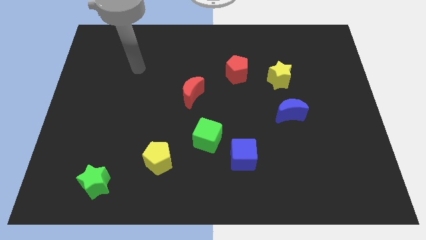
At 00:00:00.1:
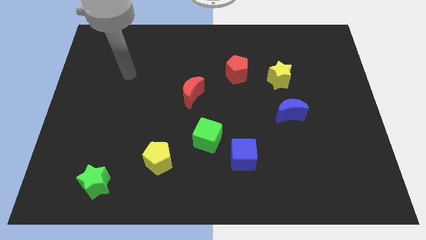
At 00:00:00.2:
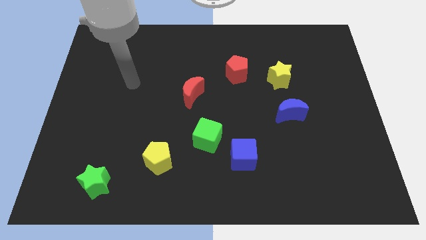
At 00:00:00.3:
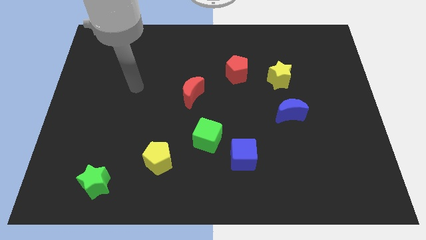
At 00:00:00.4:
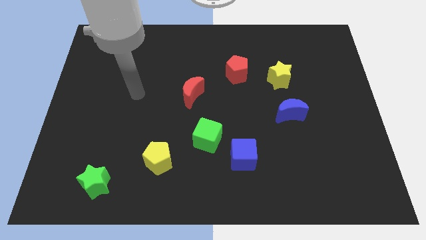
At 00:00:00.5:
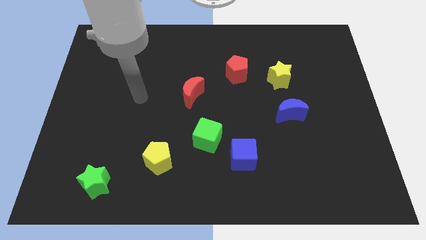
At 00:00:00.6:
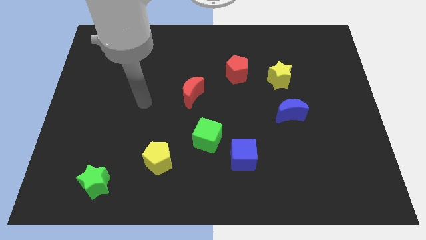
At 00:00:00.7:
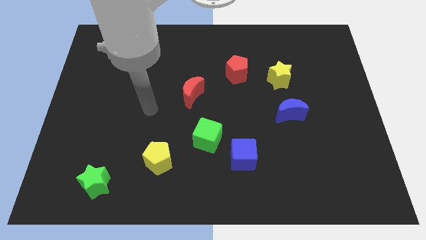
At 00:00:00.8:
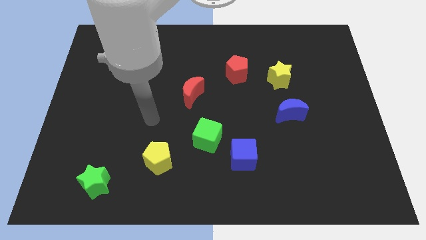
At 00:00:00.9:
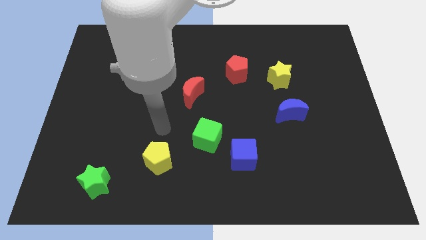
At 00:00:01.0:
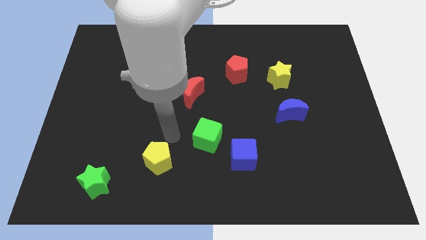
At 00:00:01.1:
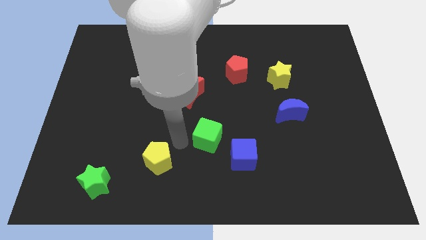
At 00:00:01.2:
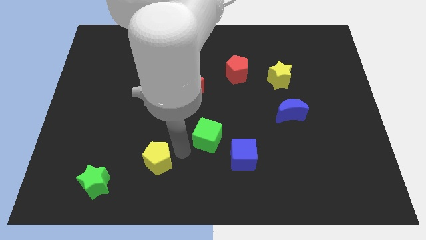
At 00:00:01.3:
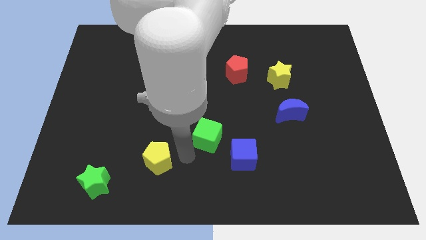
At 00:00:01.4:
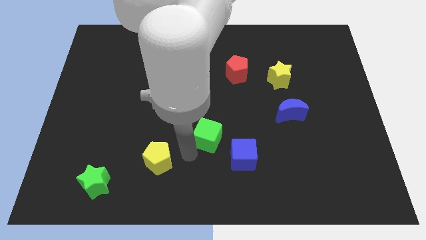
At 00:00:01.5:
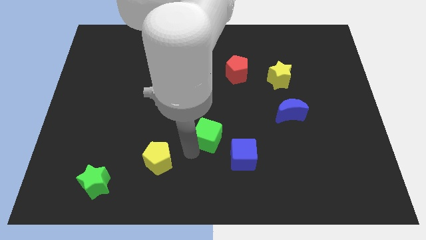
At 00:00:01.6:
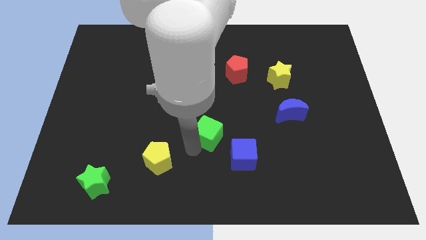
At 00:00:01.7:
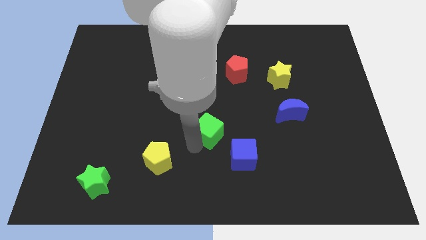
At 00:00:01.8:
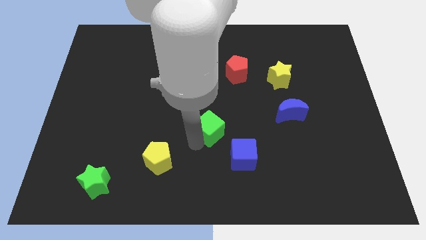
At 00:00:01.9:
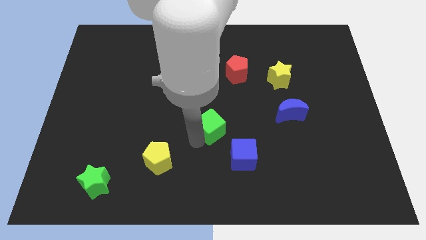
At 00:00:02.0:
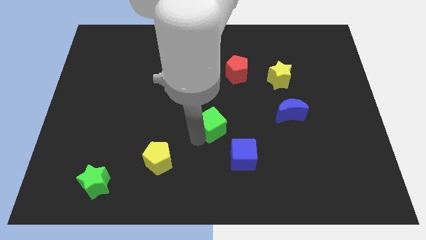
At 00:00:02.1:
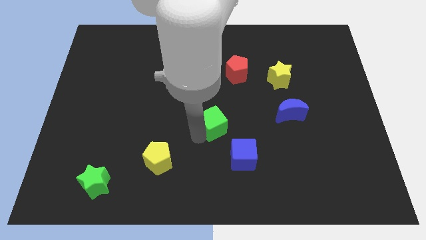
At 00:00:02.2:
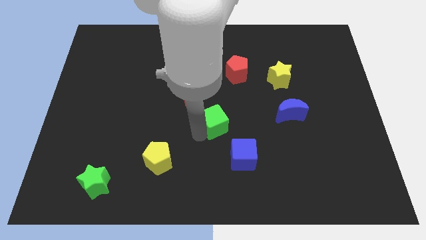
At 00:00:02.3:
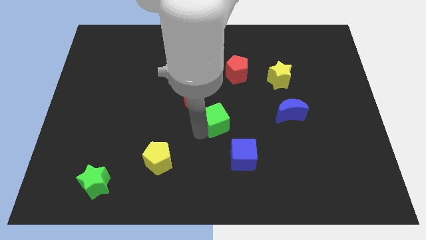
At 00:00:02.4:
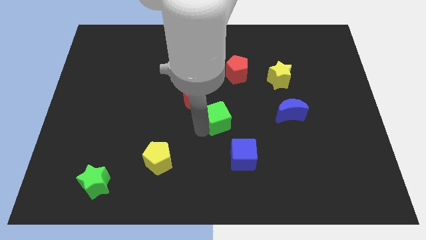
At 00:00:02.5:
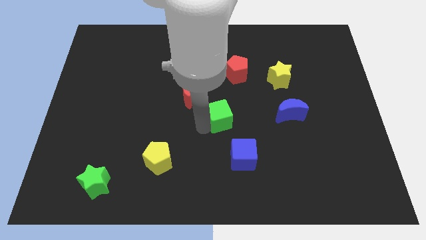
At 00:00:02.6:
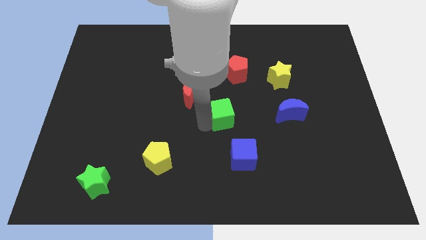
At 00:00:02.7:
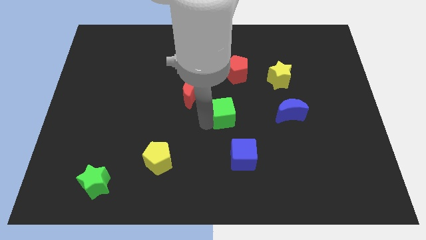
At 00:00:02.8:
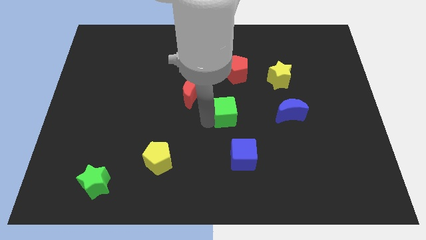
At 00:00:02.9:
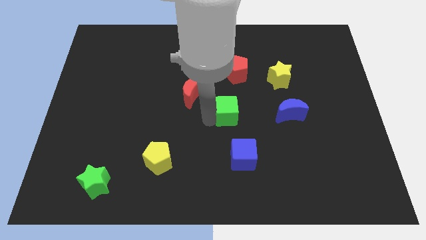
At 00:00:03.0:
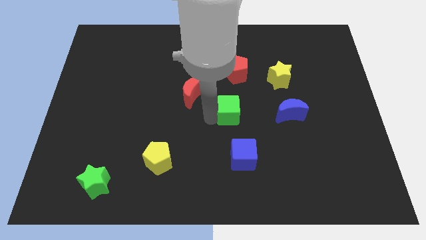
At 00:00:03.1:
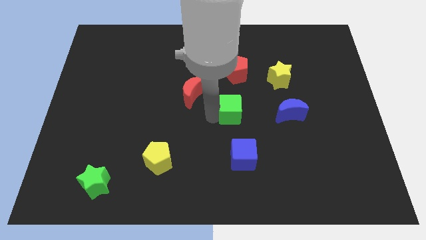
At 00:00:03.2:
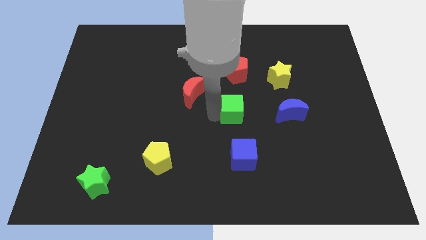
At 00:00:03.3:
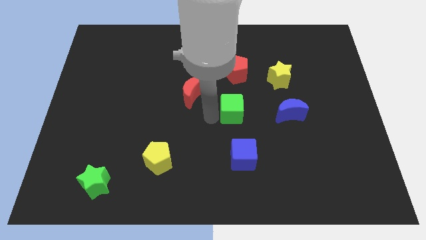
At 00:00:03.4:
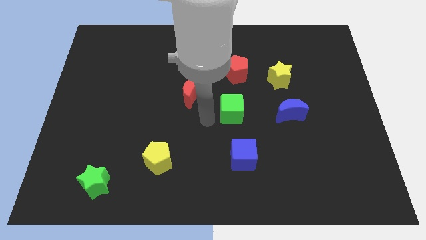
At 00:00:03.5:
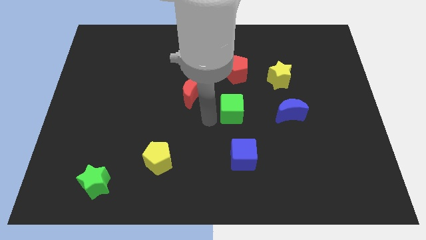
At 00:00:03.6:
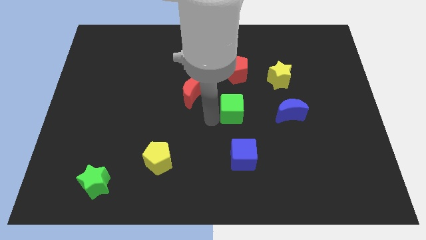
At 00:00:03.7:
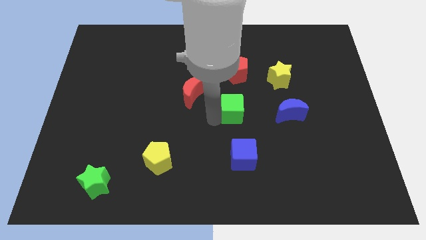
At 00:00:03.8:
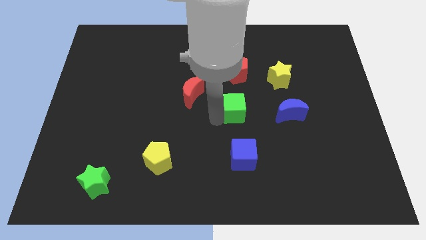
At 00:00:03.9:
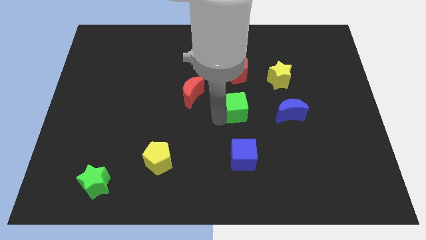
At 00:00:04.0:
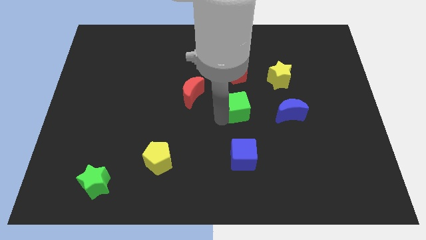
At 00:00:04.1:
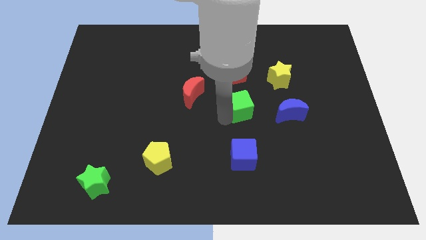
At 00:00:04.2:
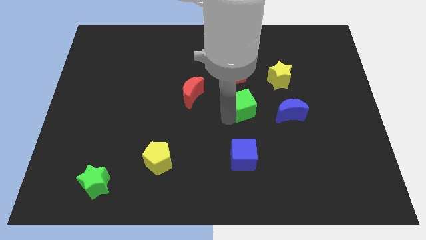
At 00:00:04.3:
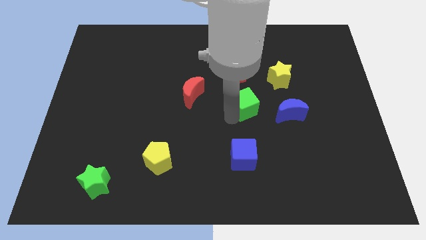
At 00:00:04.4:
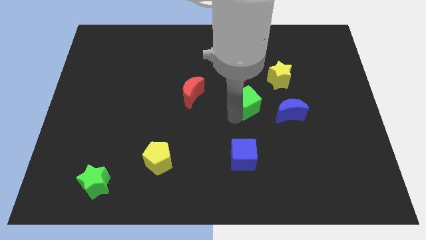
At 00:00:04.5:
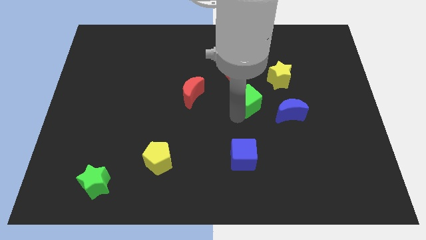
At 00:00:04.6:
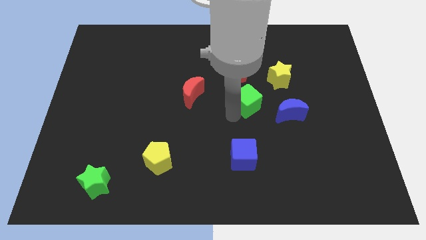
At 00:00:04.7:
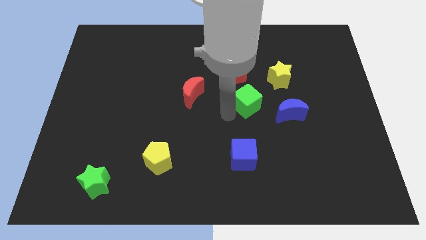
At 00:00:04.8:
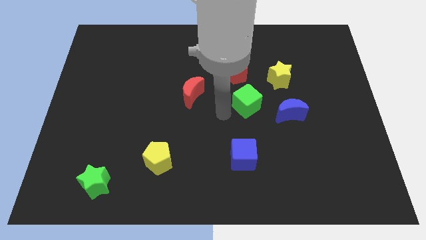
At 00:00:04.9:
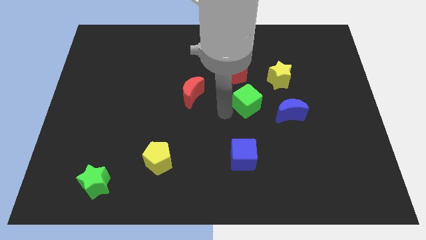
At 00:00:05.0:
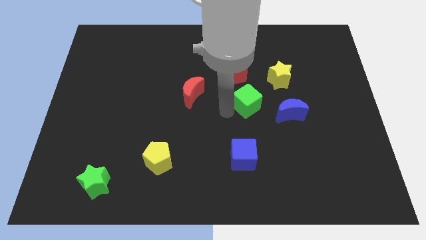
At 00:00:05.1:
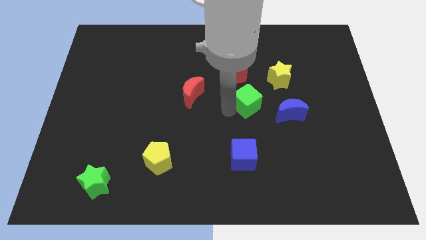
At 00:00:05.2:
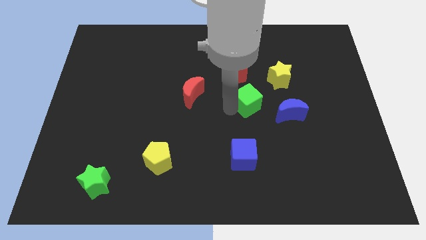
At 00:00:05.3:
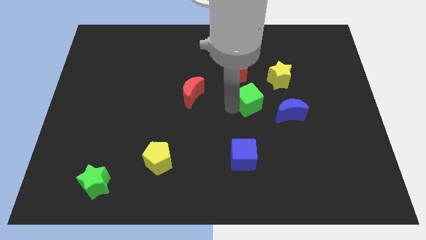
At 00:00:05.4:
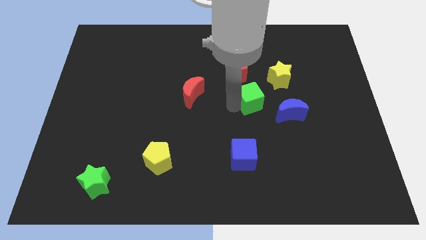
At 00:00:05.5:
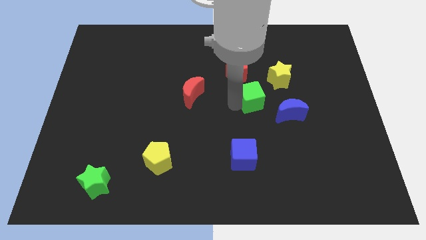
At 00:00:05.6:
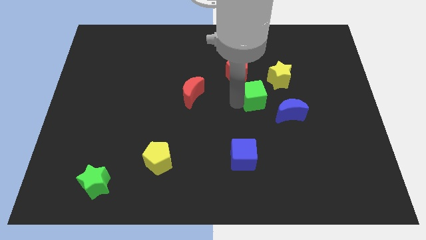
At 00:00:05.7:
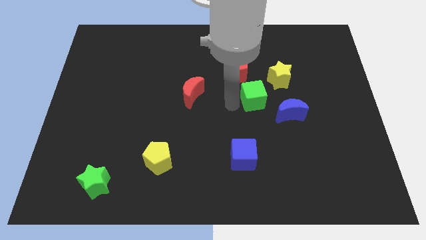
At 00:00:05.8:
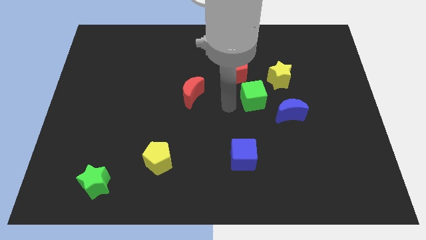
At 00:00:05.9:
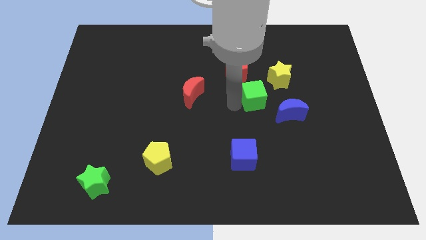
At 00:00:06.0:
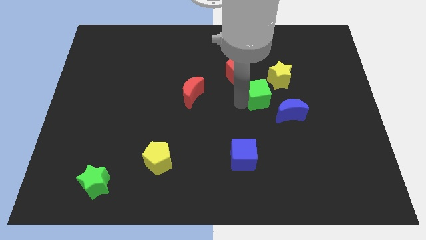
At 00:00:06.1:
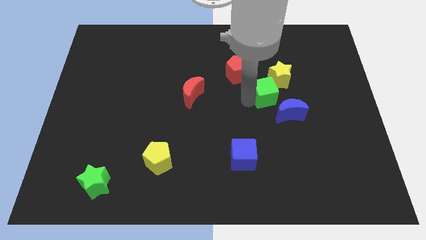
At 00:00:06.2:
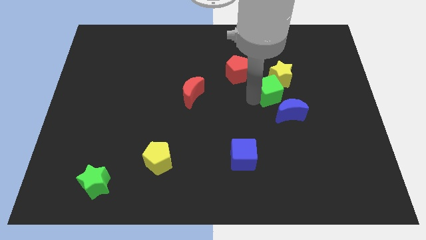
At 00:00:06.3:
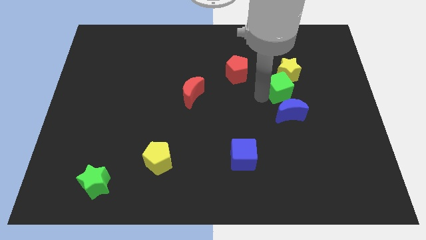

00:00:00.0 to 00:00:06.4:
slide the green cube upwards and to the right diagonally

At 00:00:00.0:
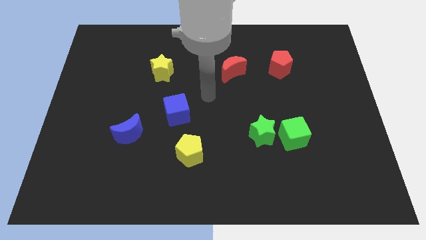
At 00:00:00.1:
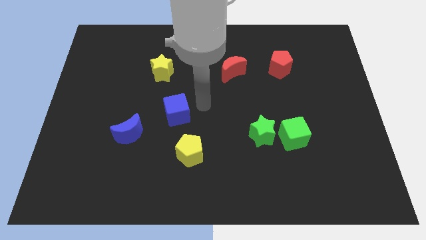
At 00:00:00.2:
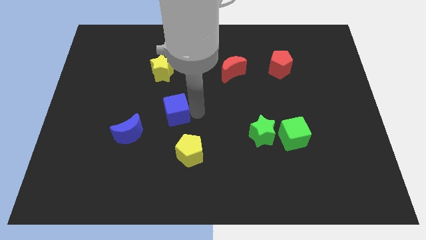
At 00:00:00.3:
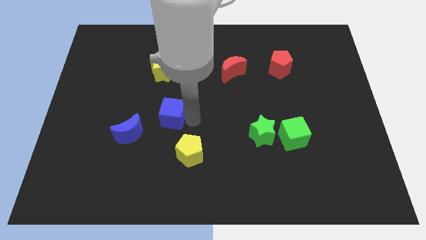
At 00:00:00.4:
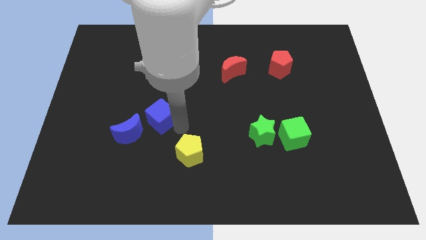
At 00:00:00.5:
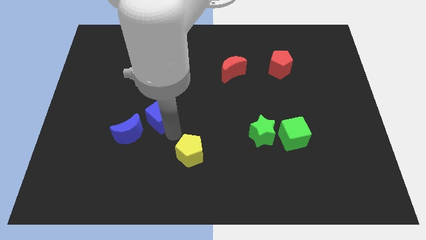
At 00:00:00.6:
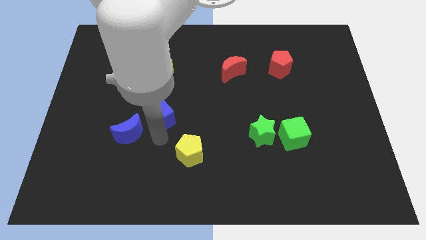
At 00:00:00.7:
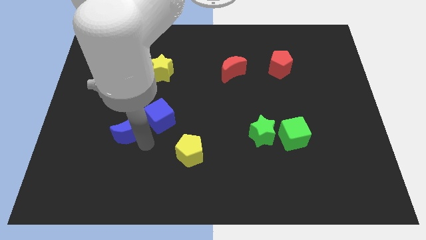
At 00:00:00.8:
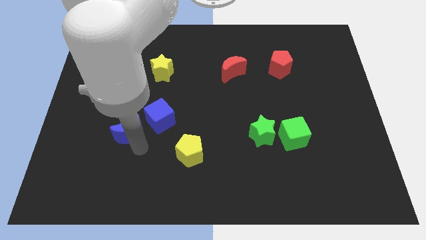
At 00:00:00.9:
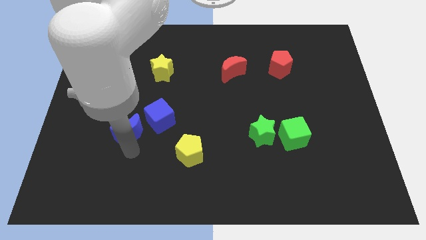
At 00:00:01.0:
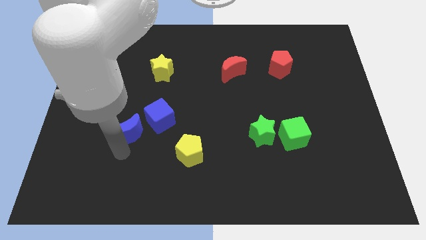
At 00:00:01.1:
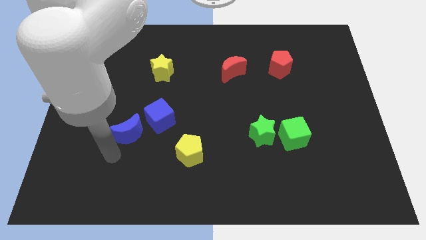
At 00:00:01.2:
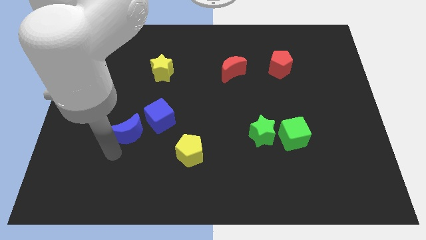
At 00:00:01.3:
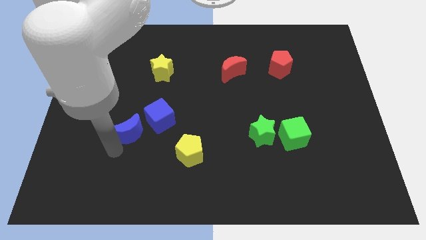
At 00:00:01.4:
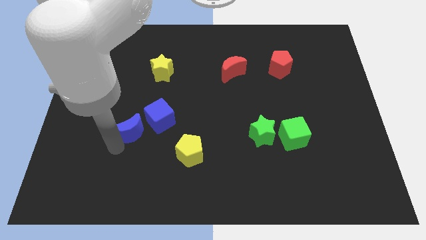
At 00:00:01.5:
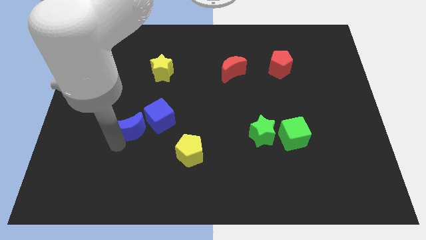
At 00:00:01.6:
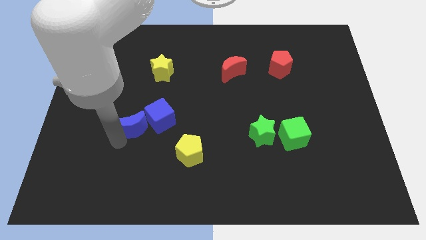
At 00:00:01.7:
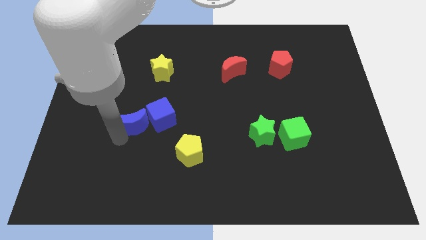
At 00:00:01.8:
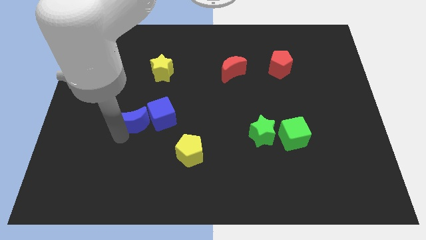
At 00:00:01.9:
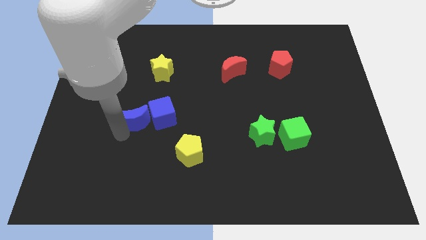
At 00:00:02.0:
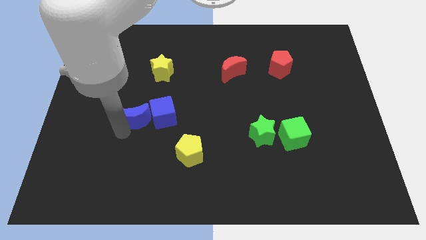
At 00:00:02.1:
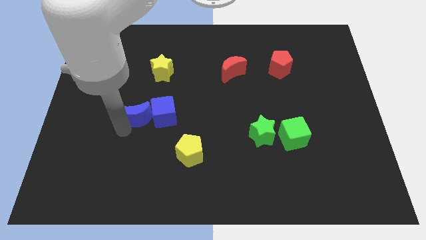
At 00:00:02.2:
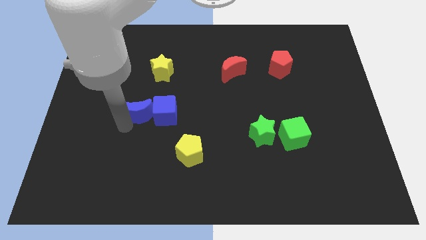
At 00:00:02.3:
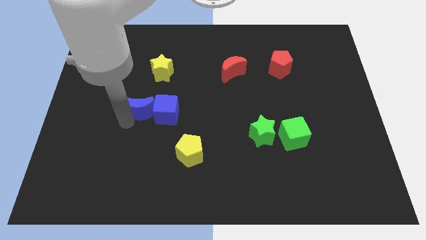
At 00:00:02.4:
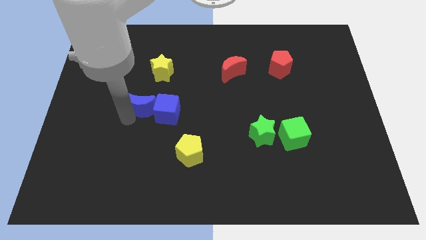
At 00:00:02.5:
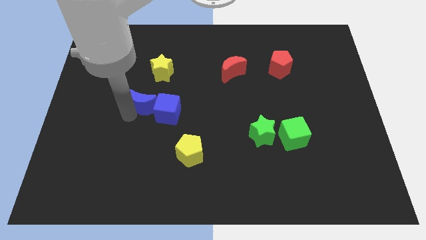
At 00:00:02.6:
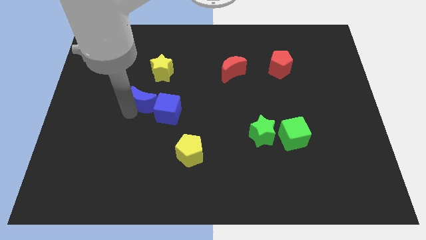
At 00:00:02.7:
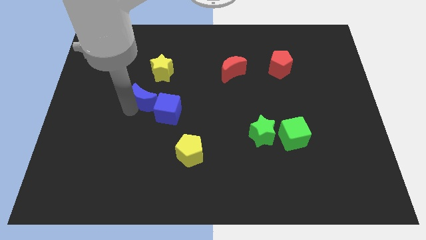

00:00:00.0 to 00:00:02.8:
move the blue moon up and right diagonally a little
